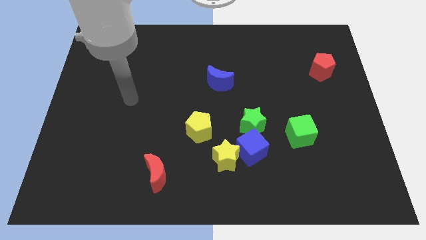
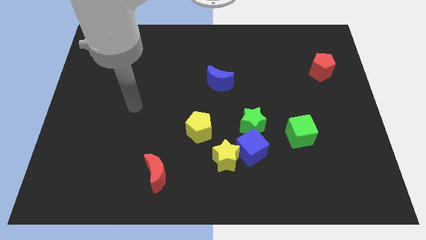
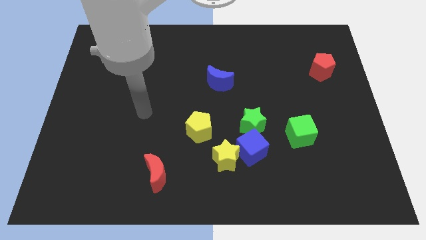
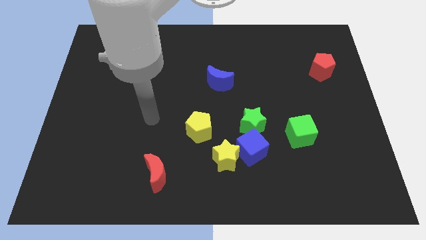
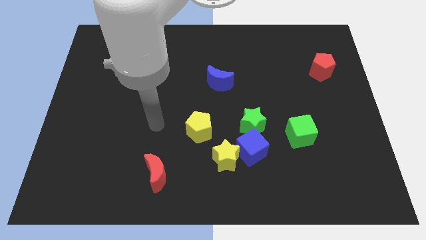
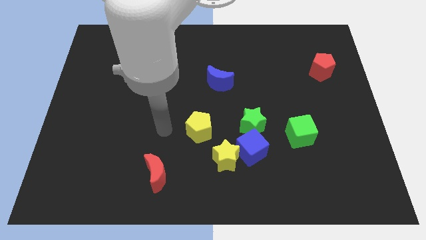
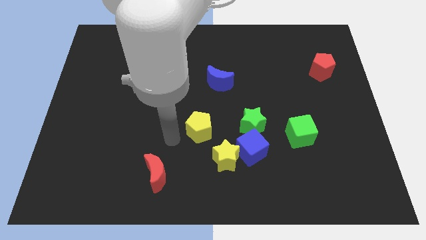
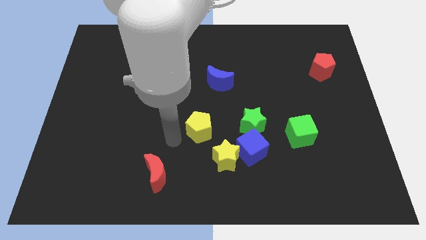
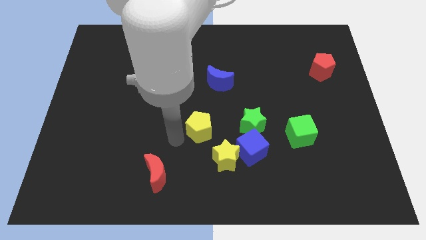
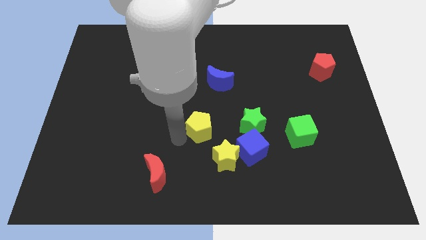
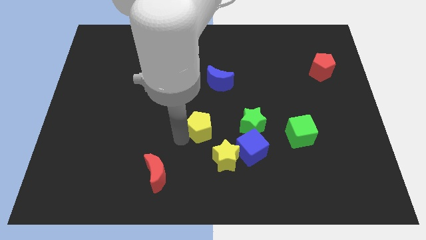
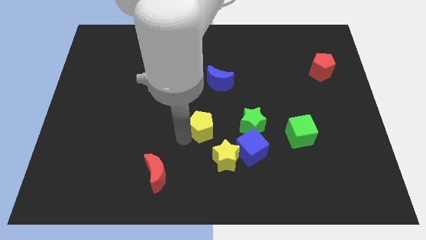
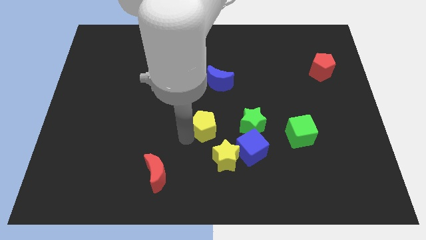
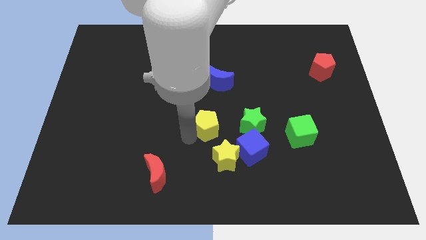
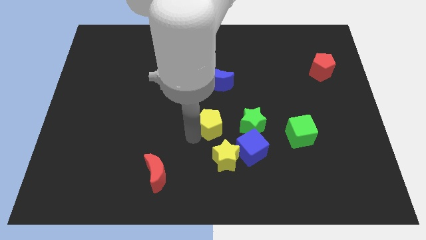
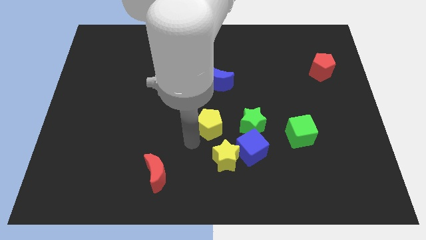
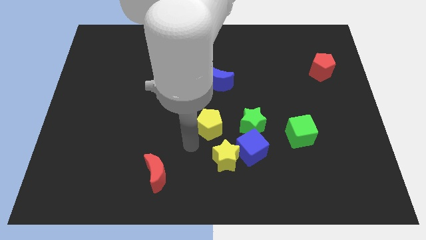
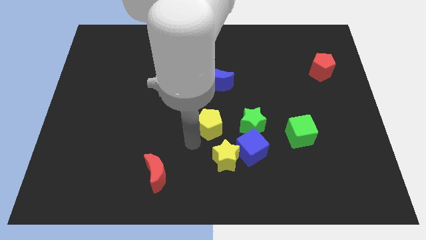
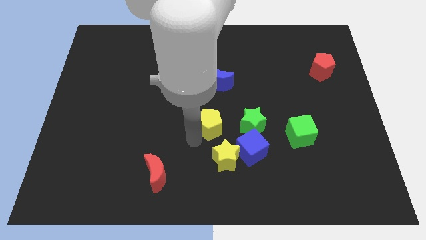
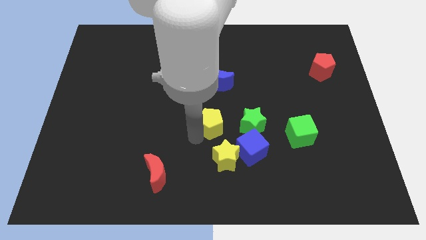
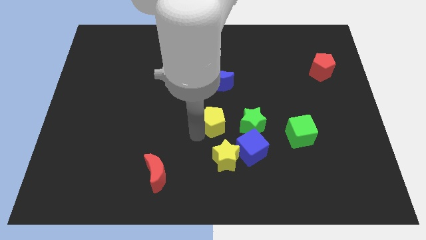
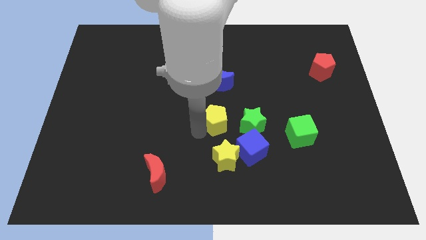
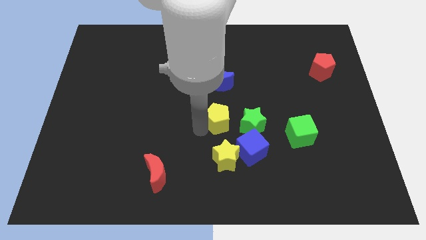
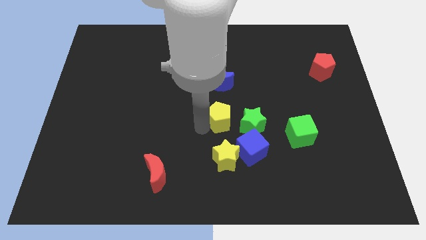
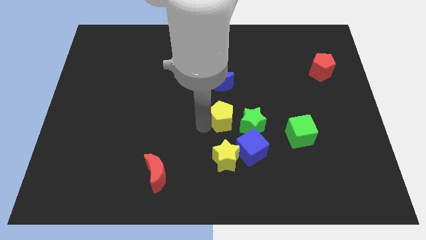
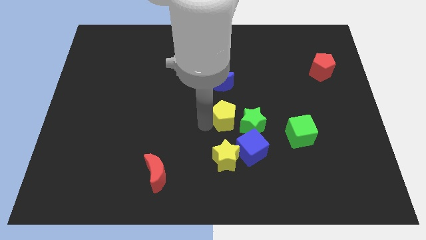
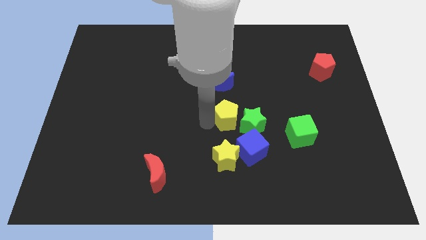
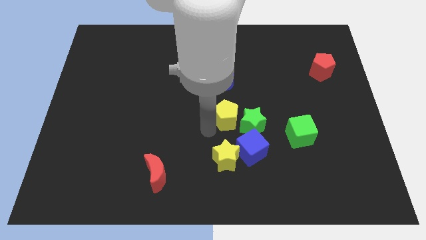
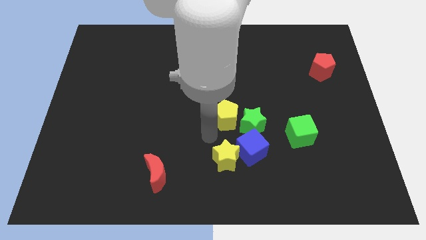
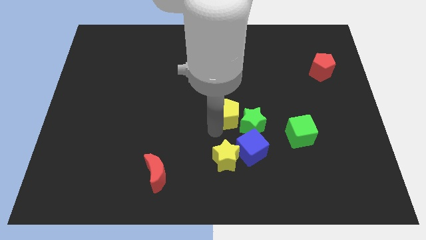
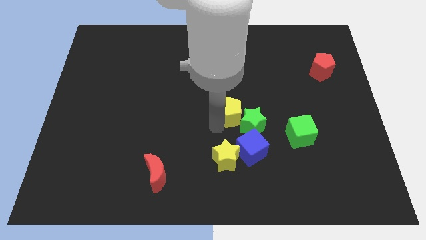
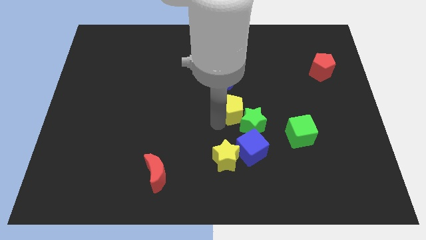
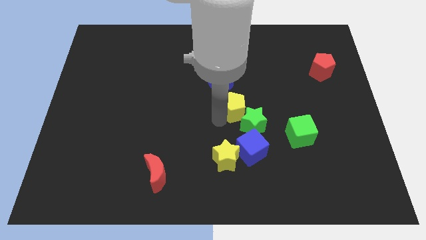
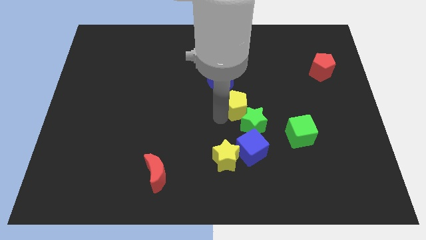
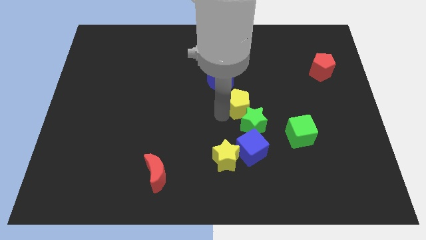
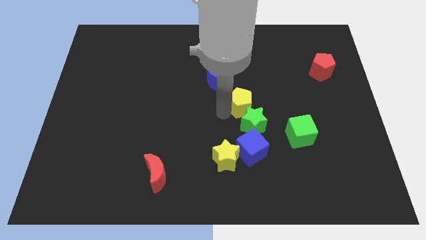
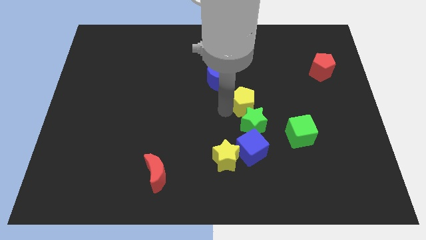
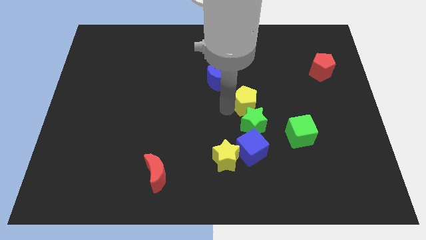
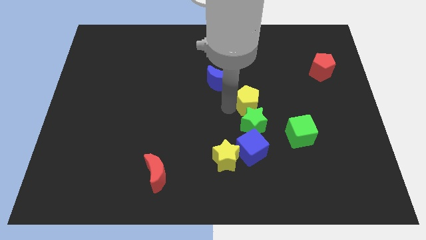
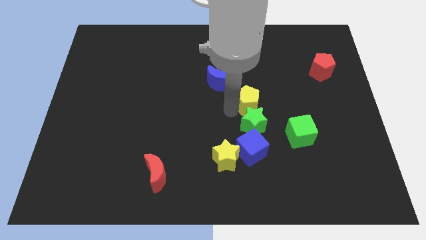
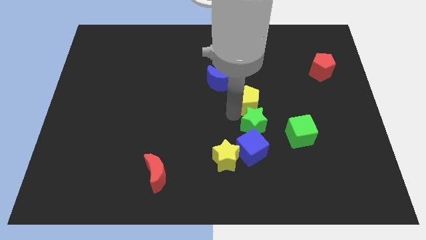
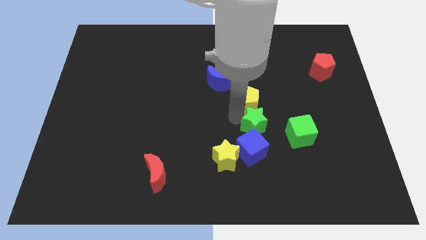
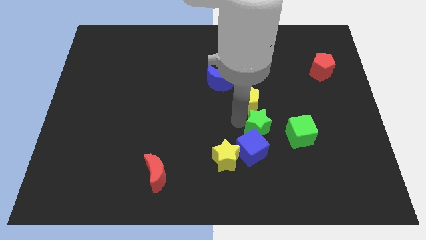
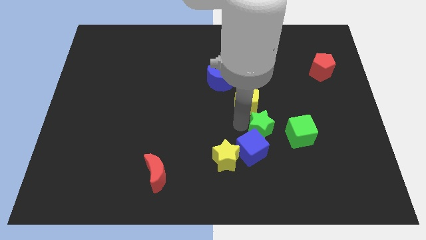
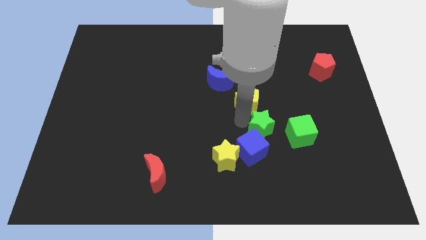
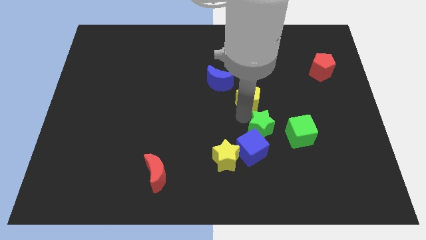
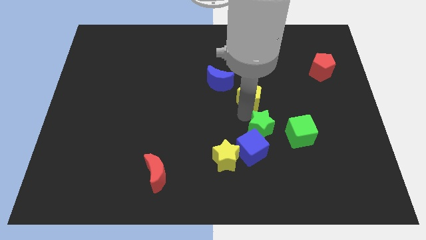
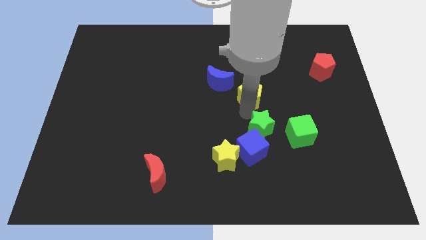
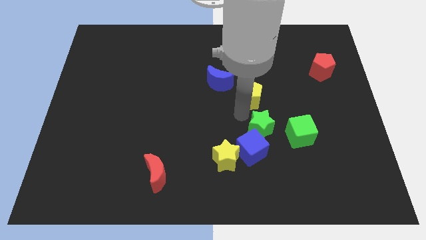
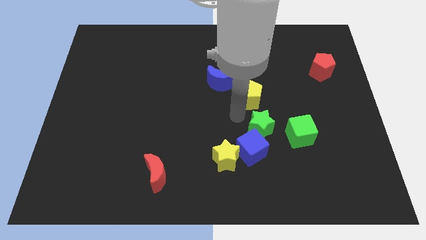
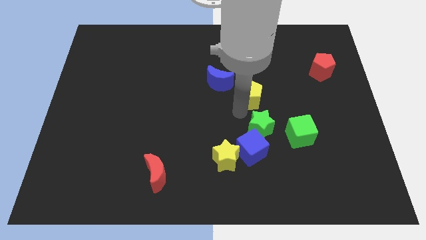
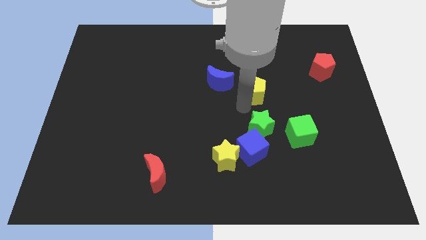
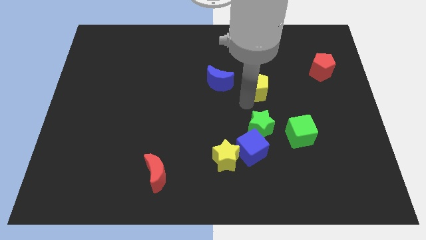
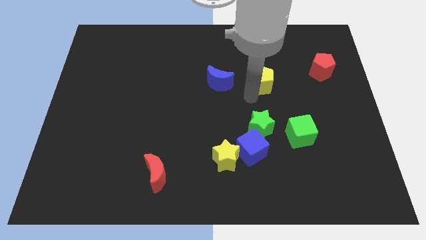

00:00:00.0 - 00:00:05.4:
move the yellow pentagon upwards and to the right diagonally

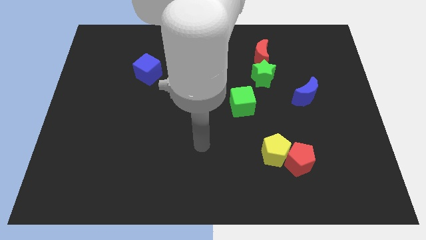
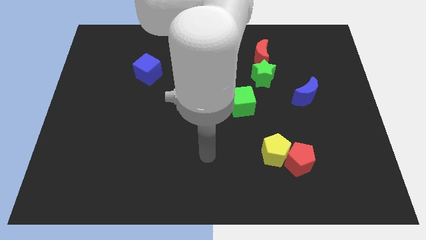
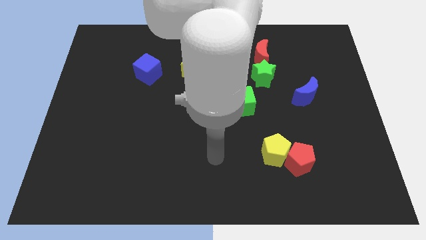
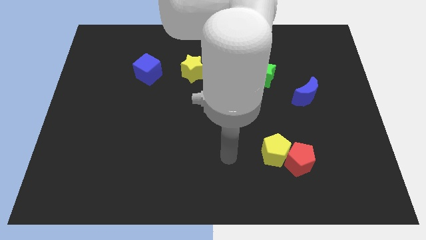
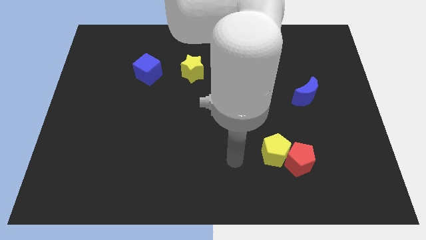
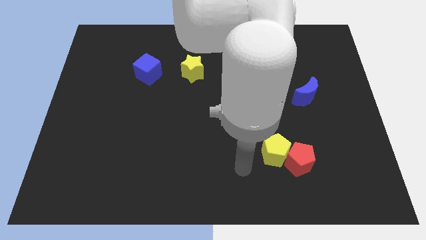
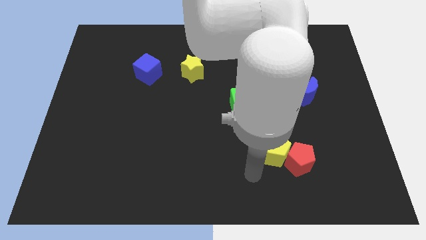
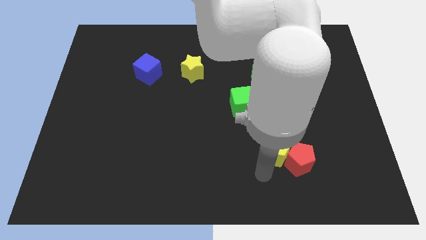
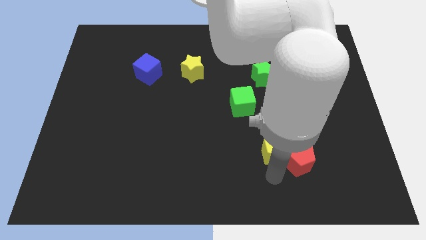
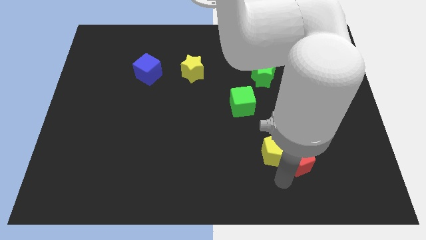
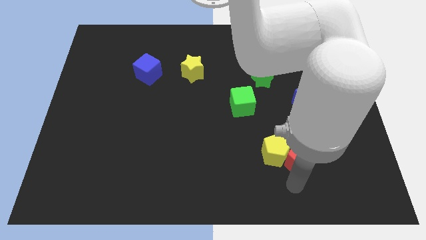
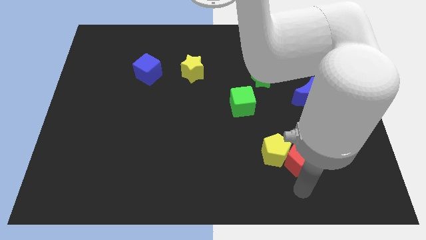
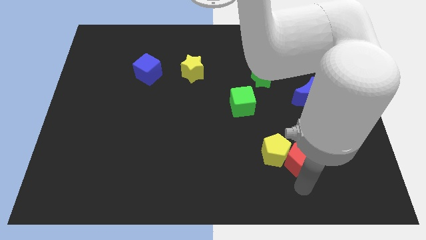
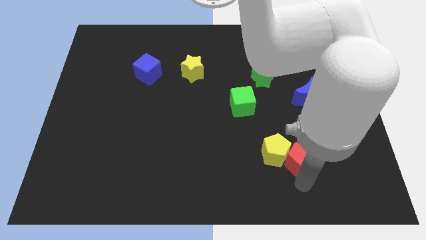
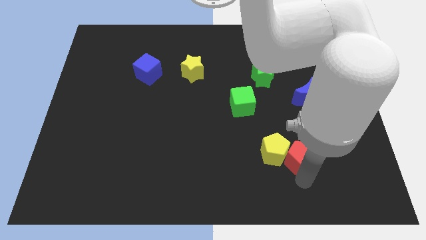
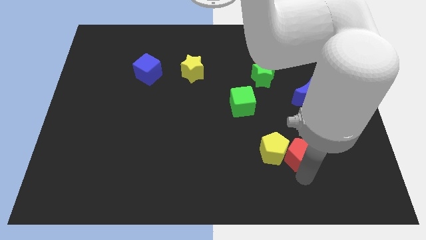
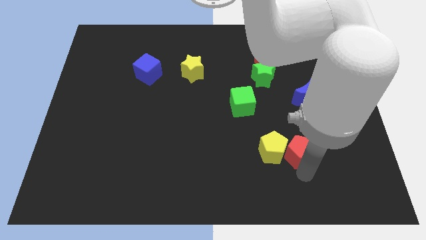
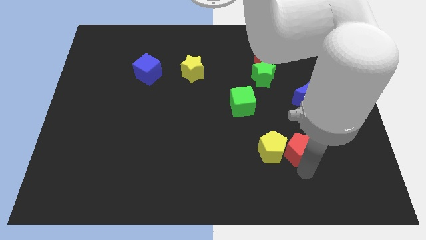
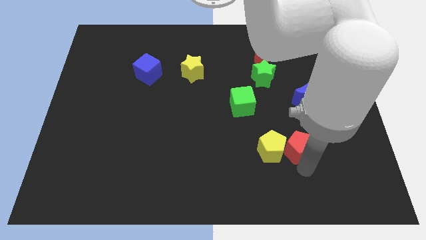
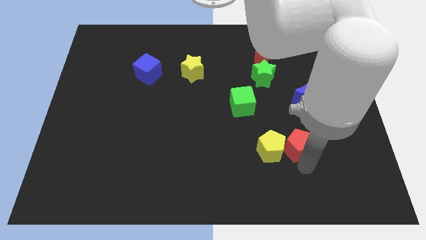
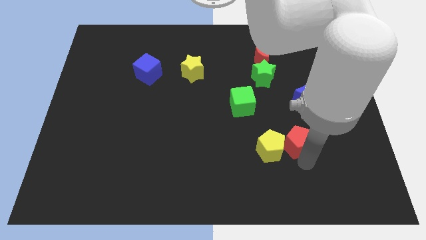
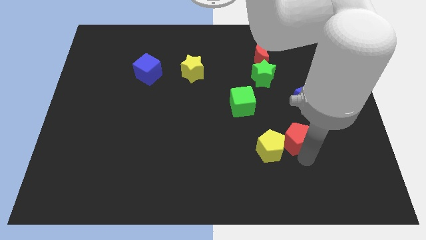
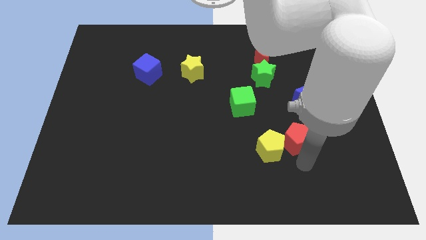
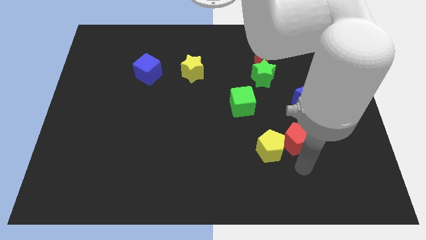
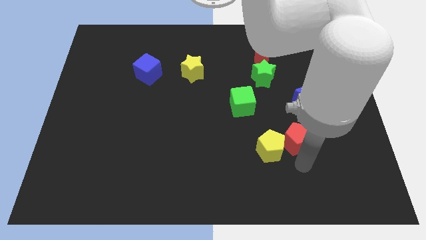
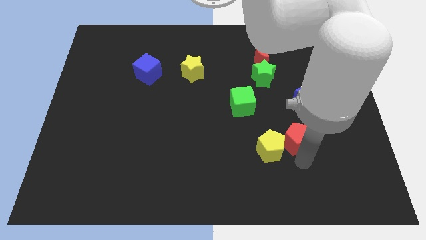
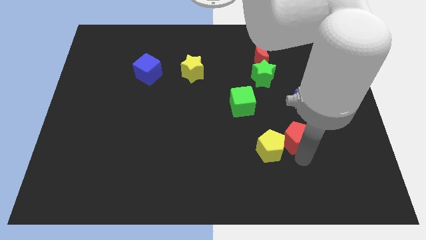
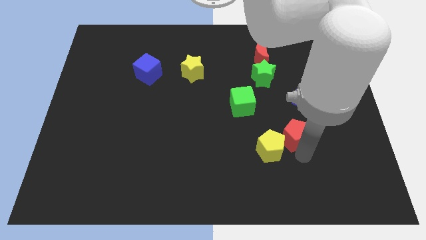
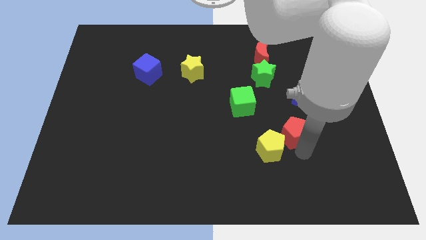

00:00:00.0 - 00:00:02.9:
slide the red pentagon a little up
